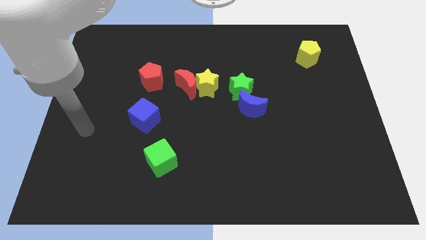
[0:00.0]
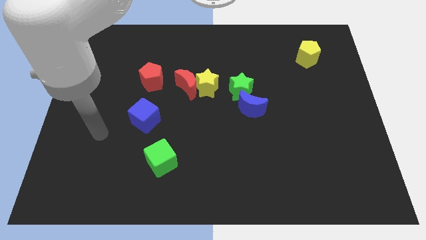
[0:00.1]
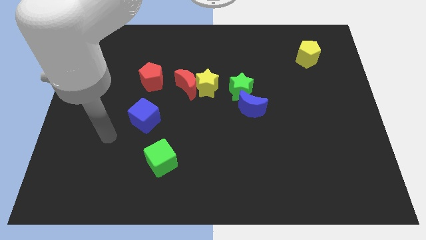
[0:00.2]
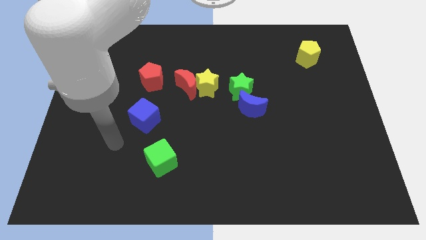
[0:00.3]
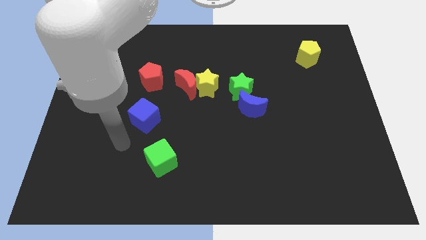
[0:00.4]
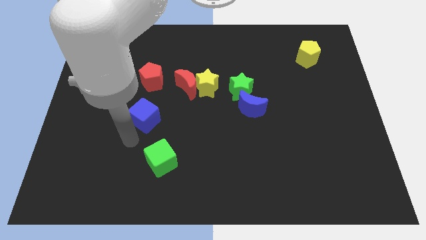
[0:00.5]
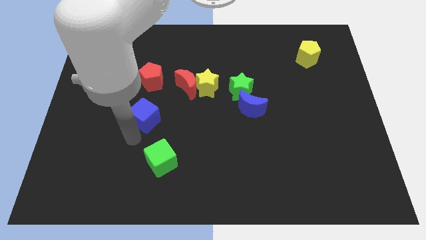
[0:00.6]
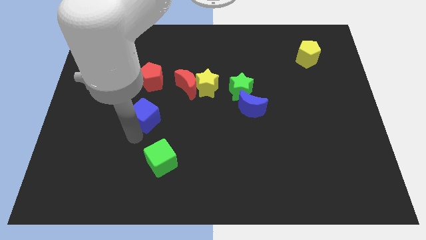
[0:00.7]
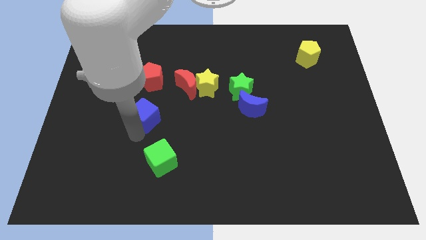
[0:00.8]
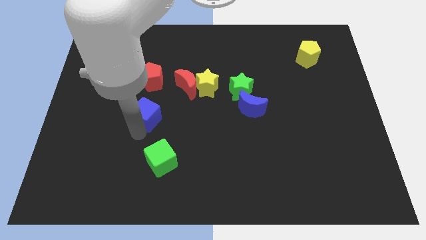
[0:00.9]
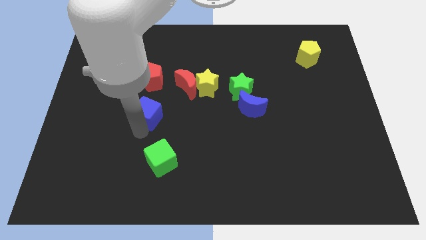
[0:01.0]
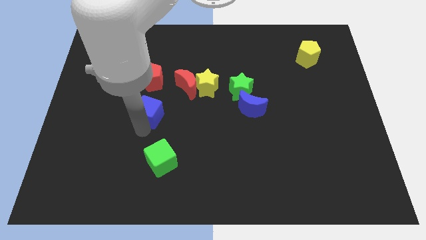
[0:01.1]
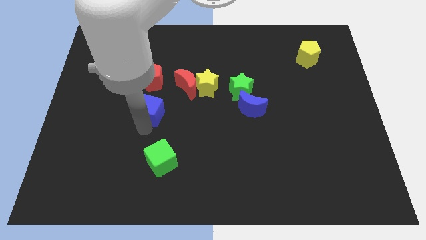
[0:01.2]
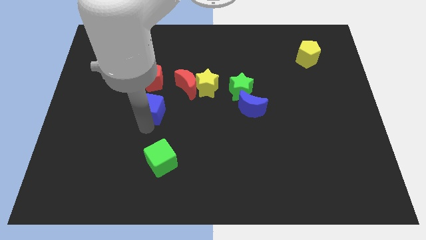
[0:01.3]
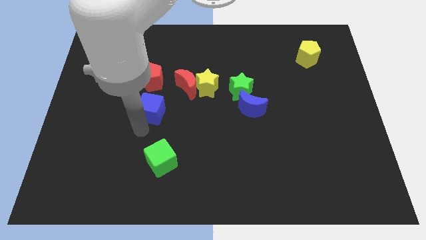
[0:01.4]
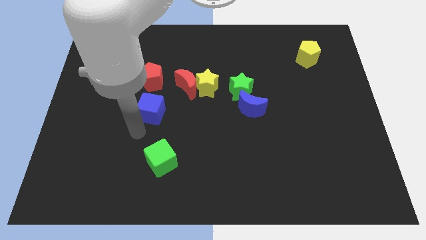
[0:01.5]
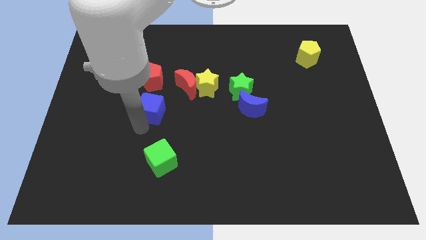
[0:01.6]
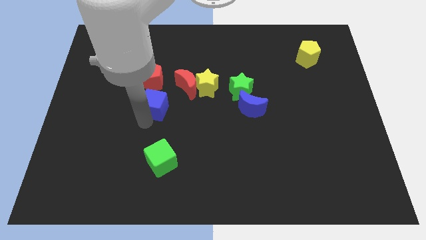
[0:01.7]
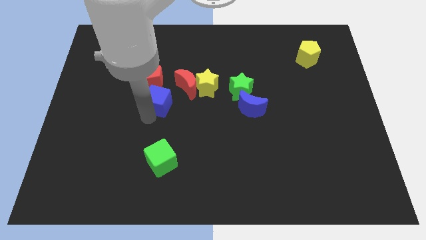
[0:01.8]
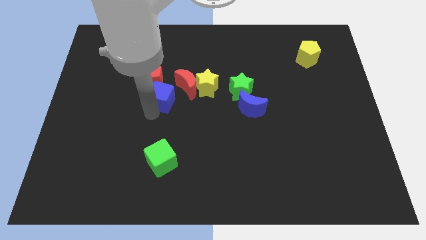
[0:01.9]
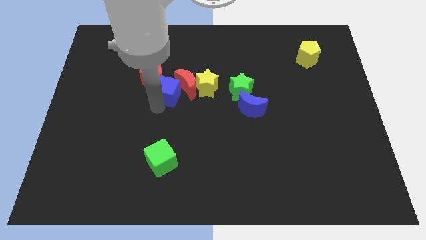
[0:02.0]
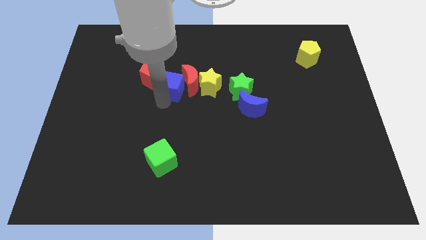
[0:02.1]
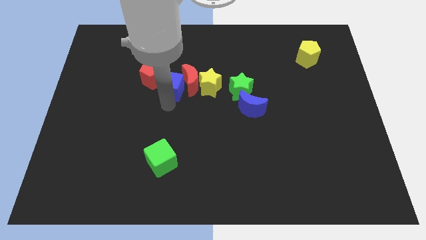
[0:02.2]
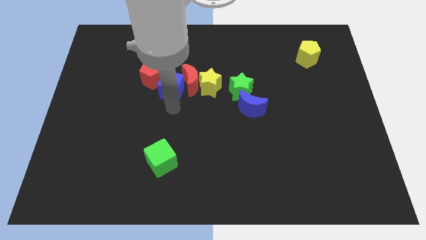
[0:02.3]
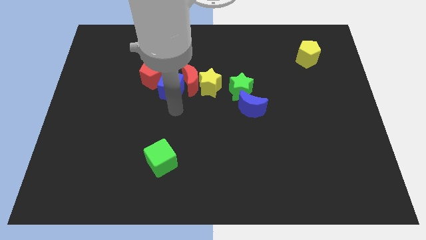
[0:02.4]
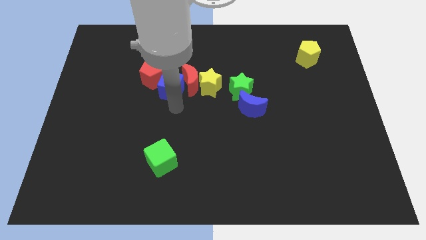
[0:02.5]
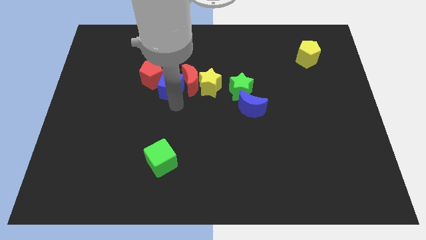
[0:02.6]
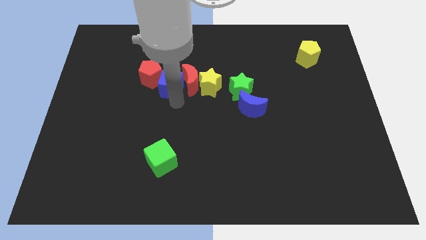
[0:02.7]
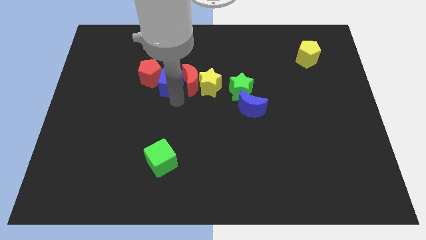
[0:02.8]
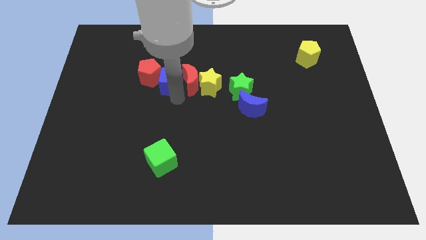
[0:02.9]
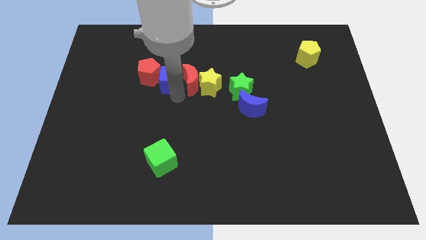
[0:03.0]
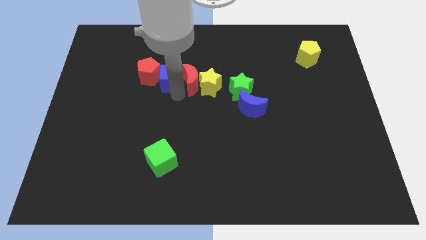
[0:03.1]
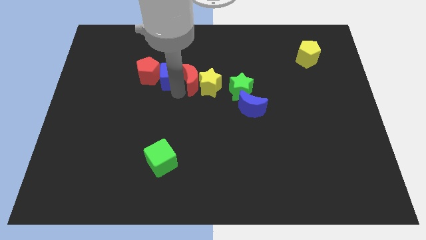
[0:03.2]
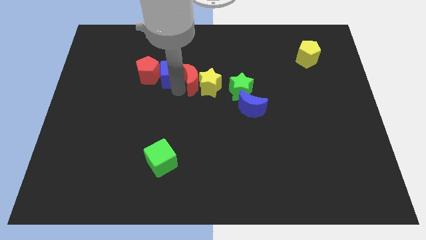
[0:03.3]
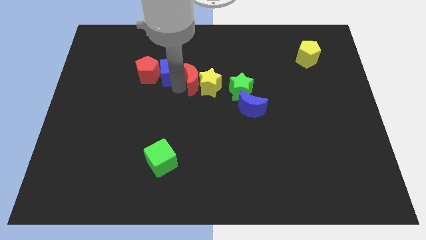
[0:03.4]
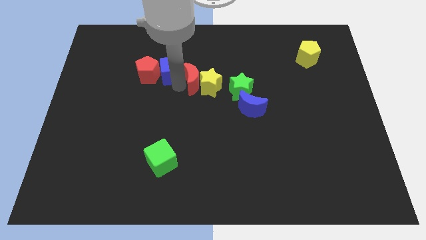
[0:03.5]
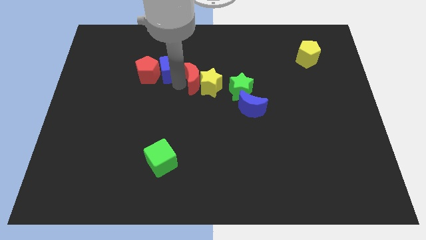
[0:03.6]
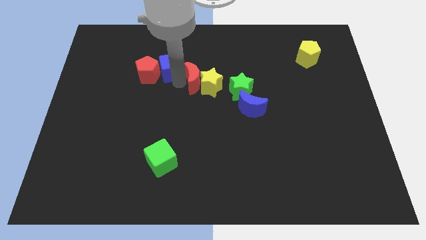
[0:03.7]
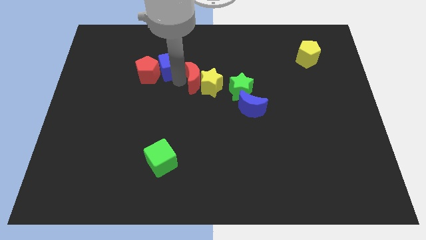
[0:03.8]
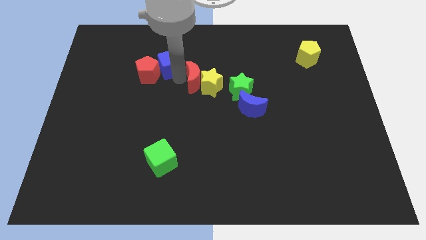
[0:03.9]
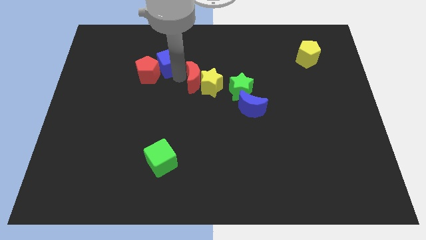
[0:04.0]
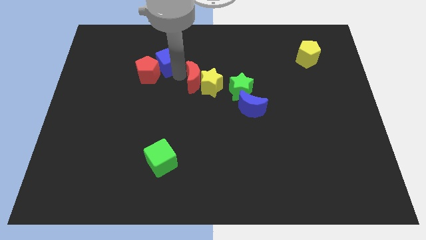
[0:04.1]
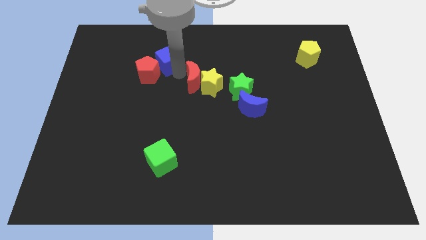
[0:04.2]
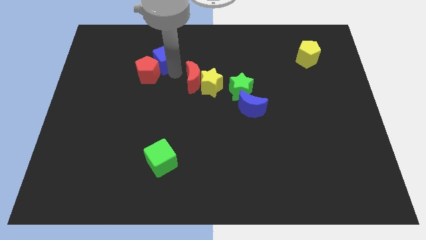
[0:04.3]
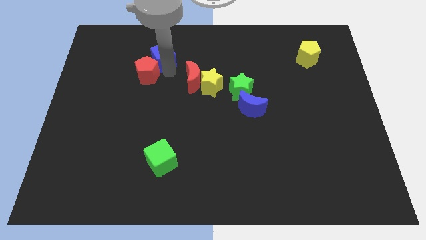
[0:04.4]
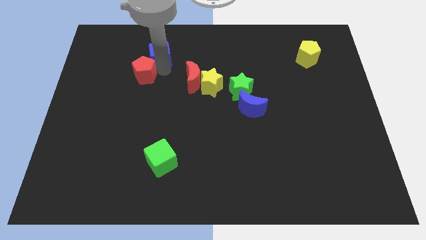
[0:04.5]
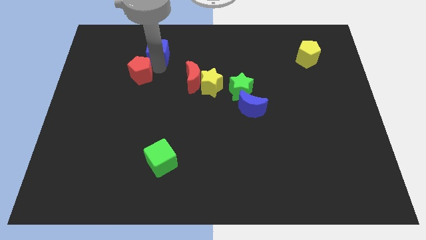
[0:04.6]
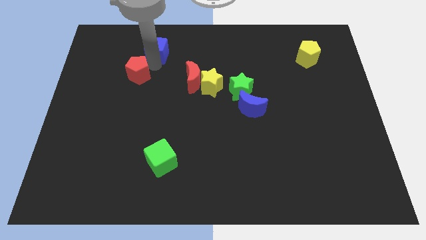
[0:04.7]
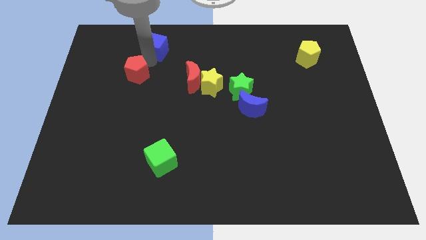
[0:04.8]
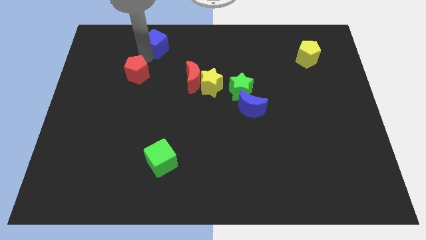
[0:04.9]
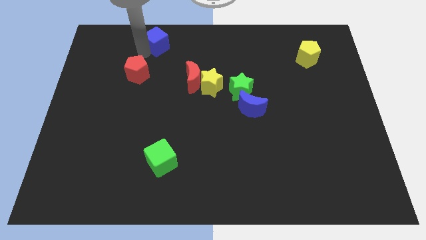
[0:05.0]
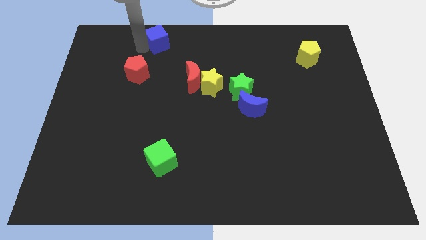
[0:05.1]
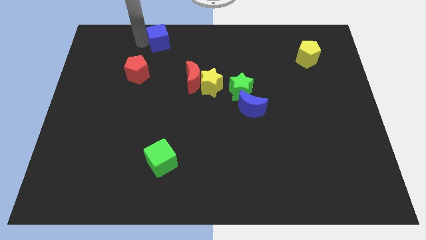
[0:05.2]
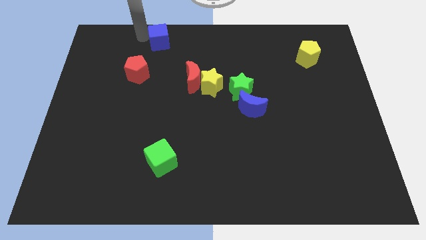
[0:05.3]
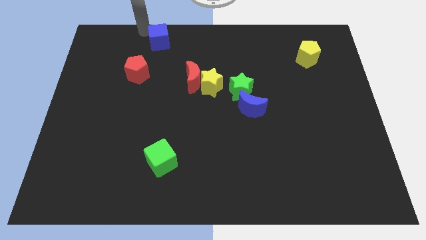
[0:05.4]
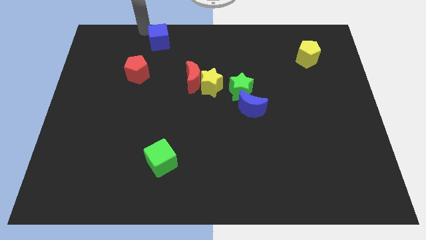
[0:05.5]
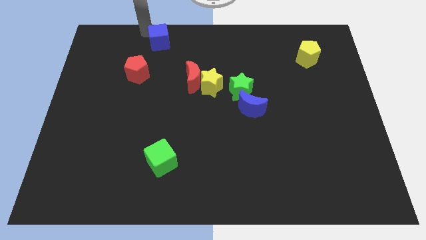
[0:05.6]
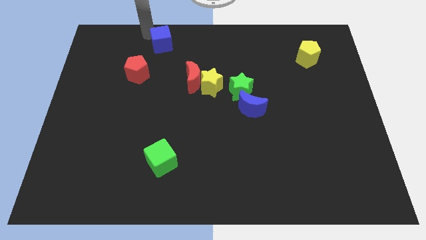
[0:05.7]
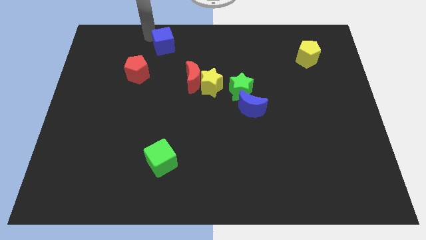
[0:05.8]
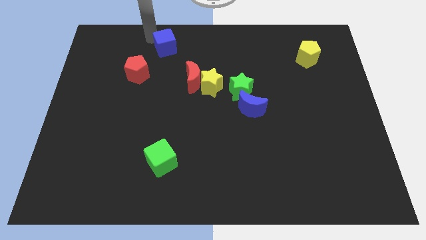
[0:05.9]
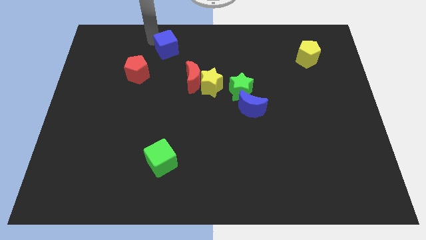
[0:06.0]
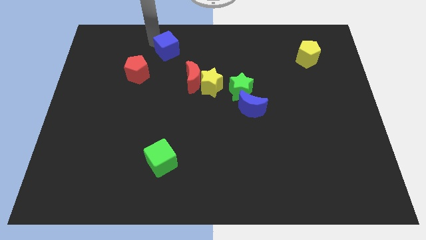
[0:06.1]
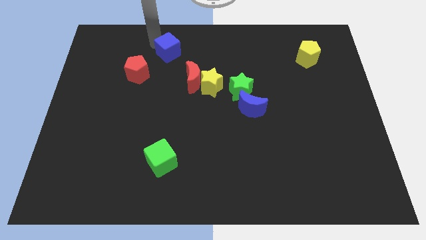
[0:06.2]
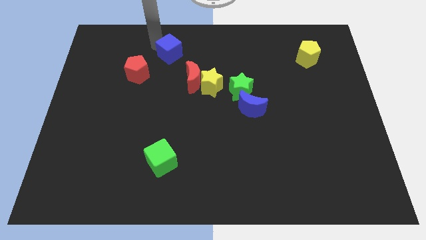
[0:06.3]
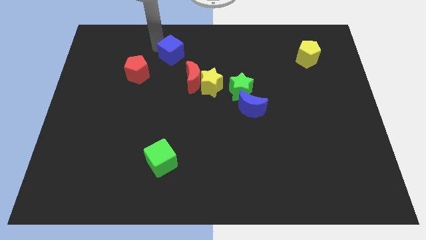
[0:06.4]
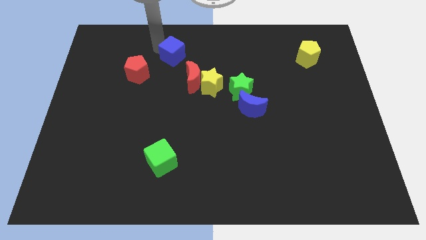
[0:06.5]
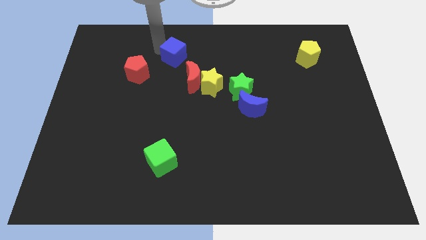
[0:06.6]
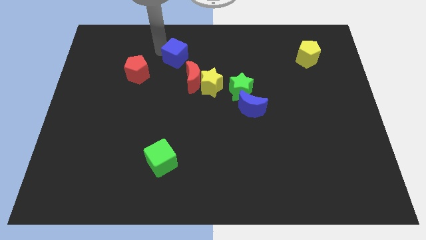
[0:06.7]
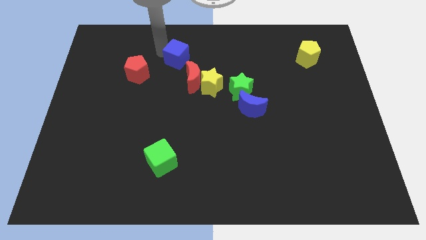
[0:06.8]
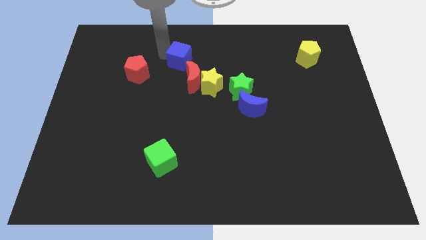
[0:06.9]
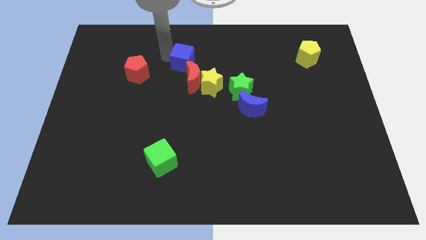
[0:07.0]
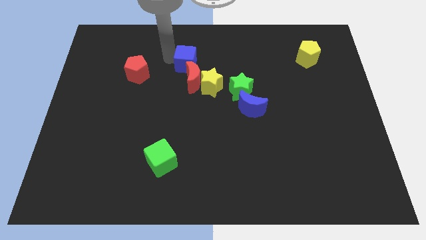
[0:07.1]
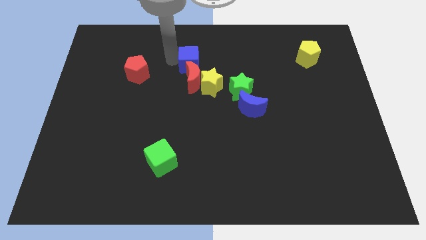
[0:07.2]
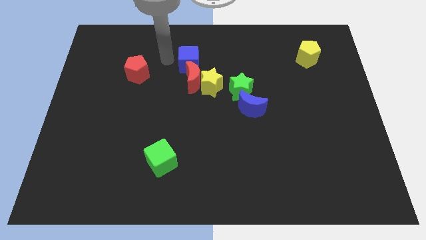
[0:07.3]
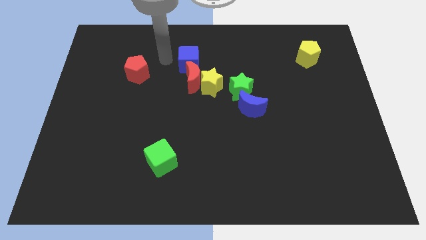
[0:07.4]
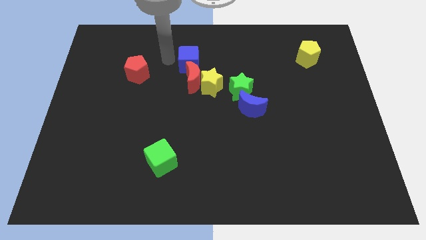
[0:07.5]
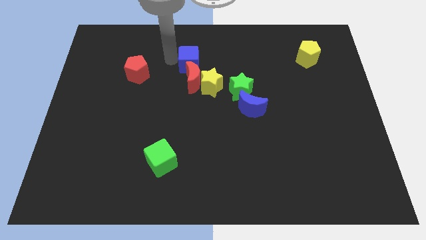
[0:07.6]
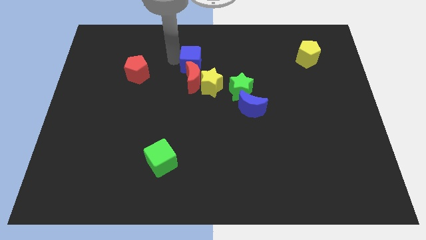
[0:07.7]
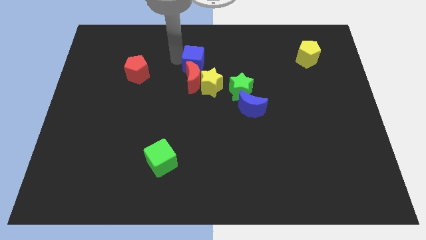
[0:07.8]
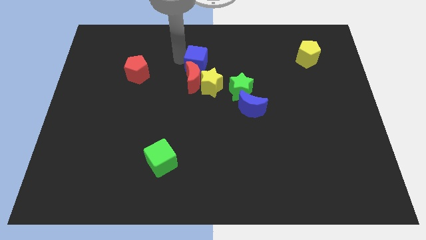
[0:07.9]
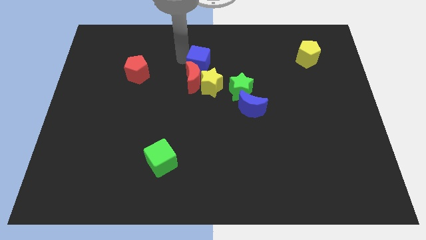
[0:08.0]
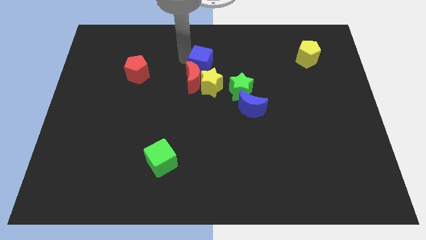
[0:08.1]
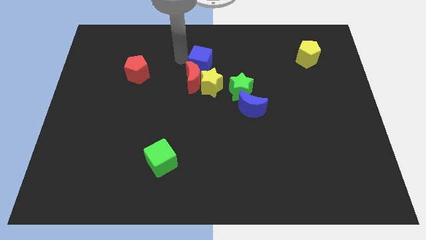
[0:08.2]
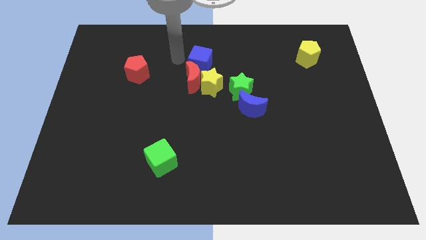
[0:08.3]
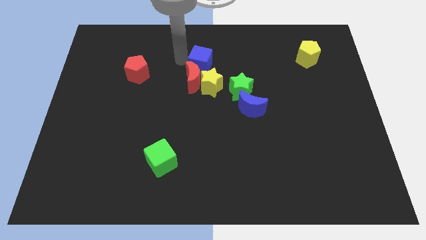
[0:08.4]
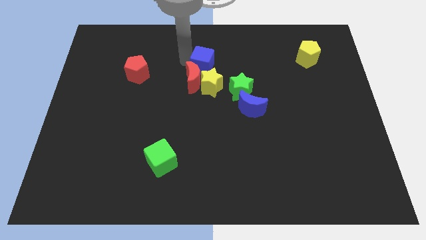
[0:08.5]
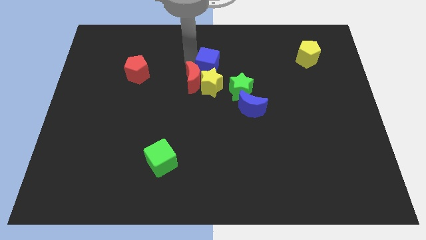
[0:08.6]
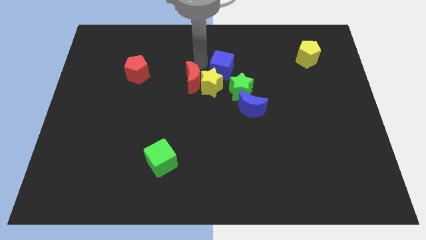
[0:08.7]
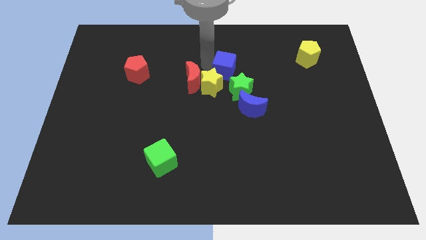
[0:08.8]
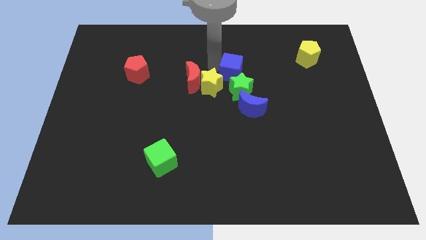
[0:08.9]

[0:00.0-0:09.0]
move the blue cube to the top side of the blue moon
